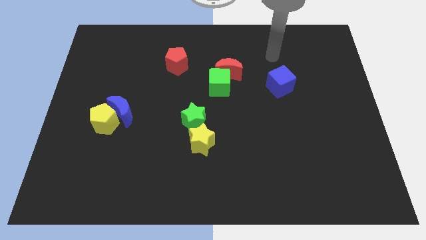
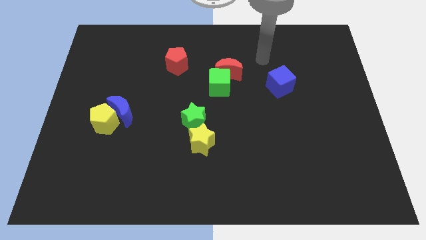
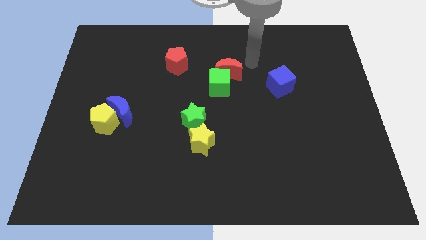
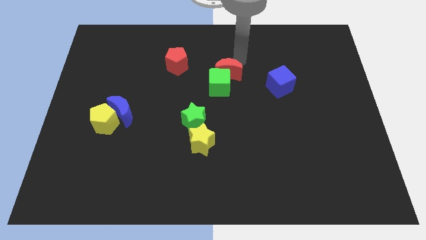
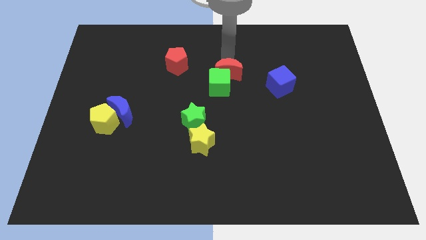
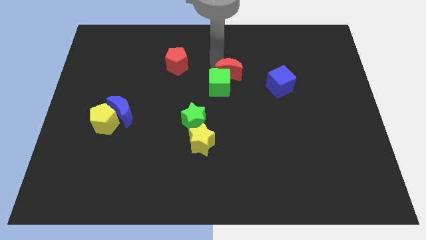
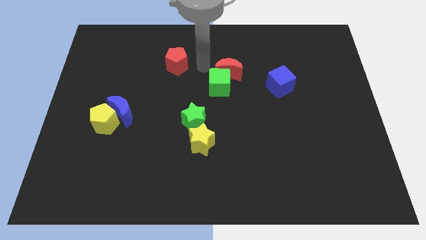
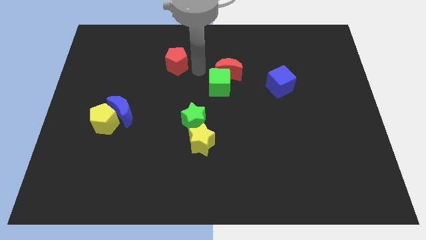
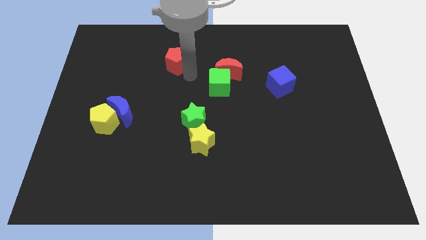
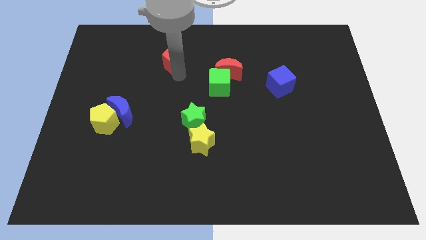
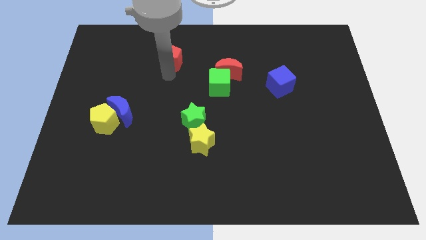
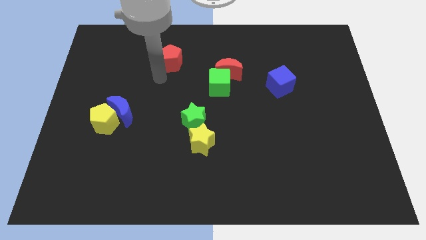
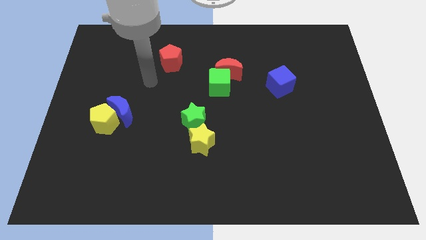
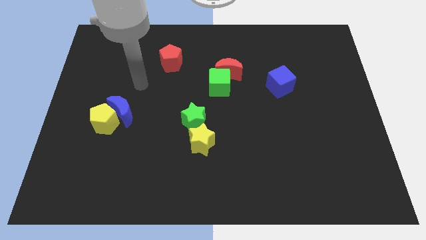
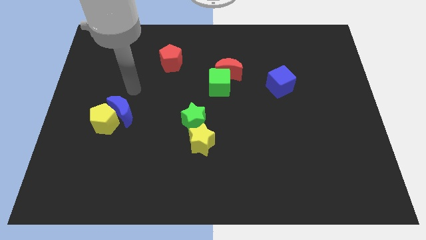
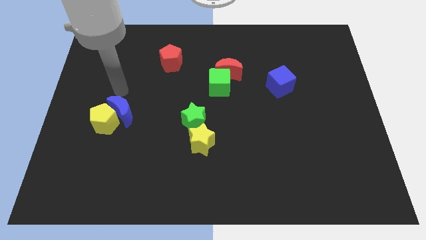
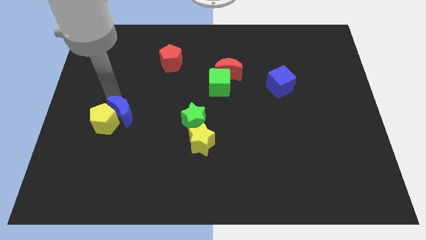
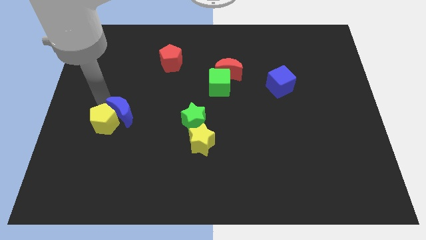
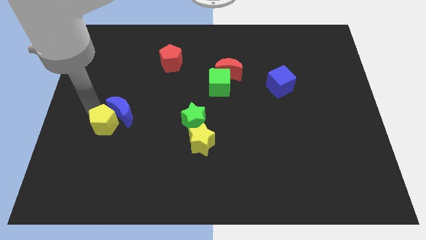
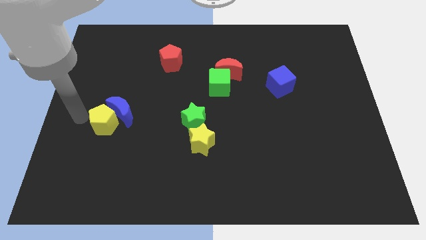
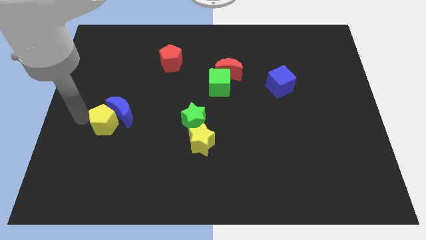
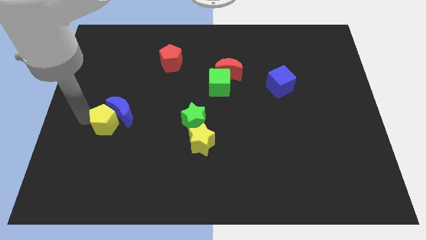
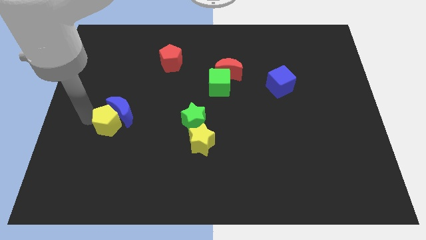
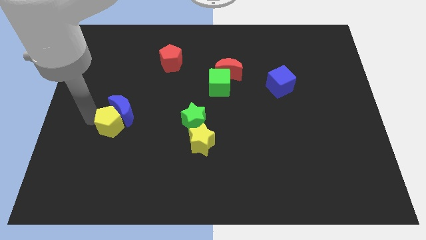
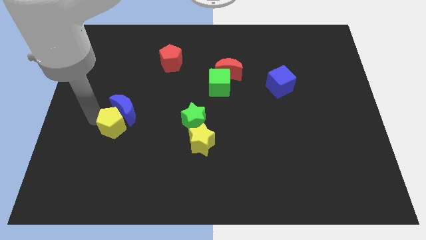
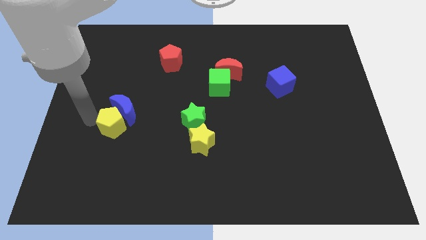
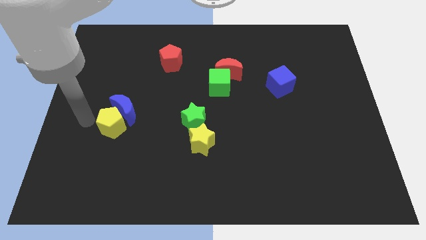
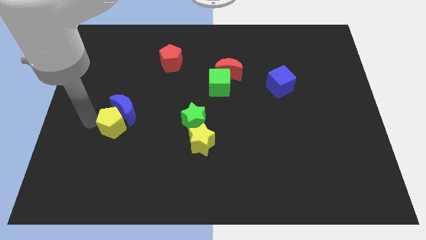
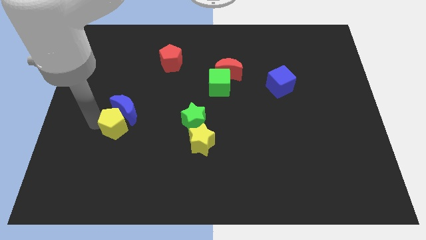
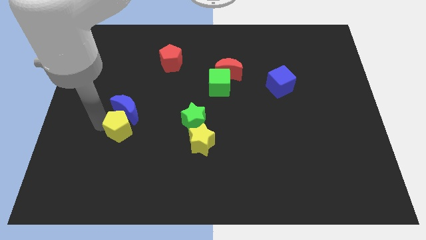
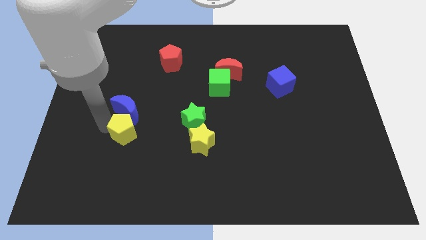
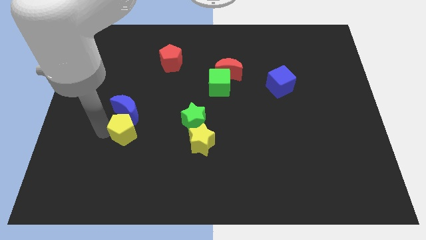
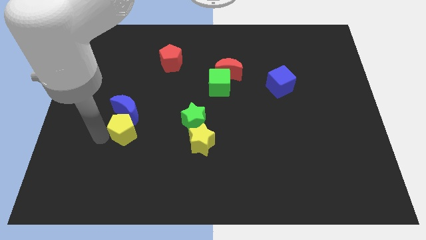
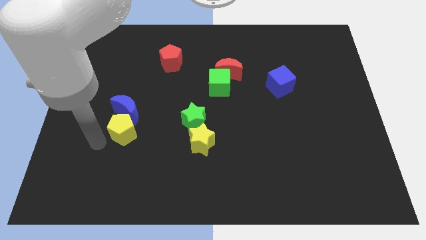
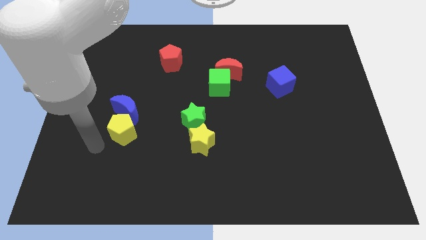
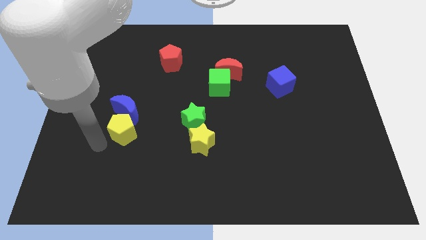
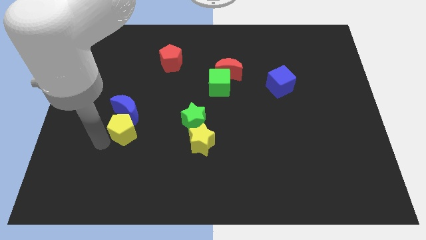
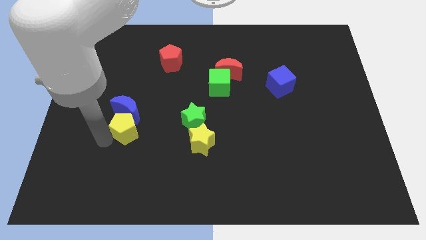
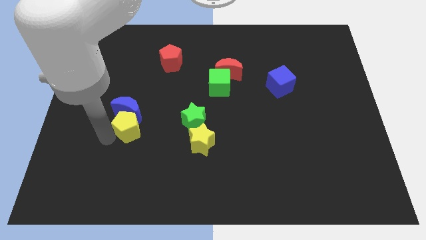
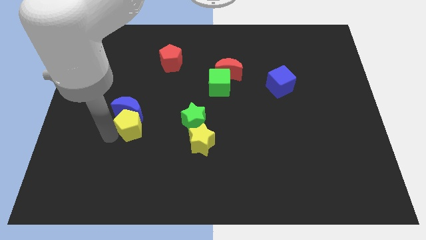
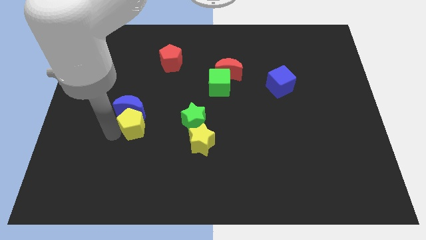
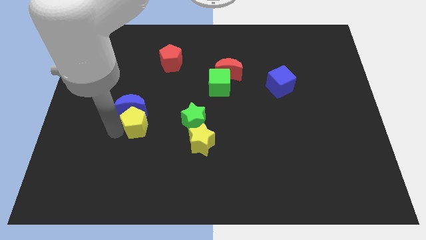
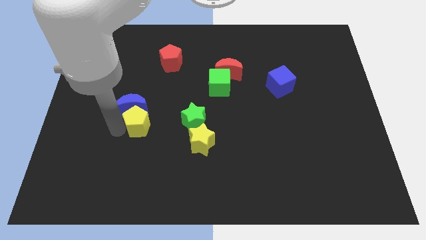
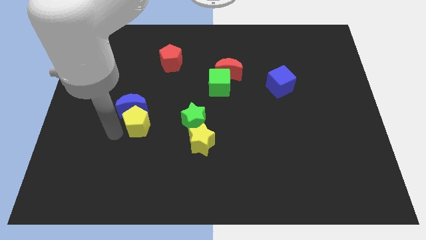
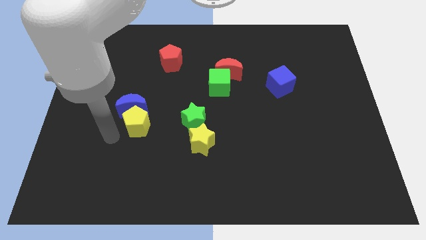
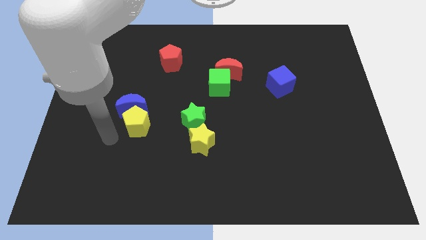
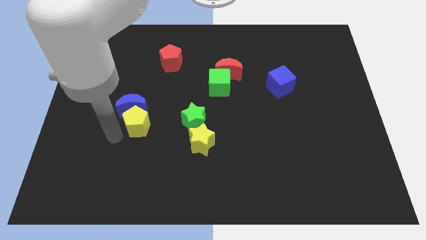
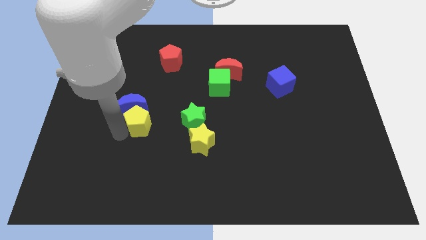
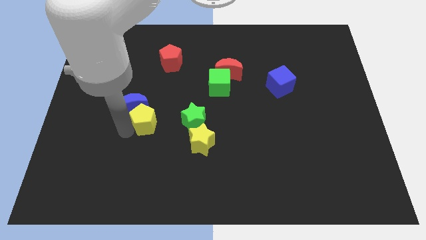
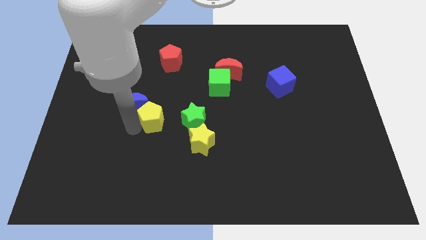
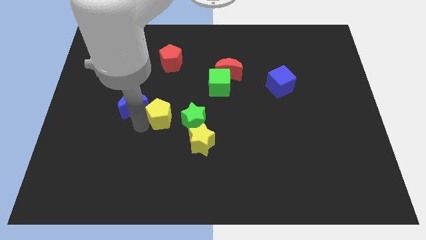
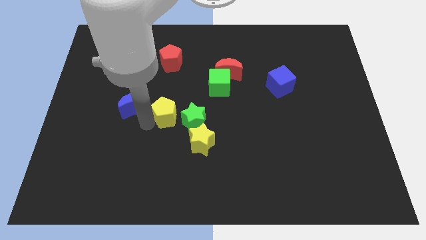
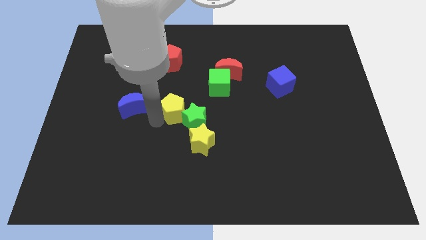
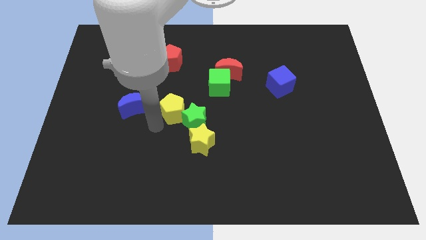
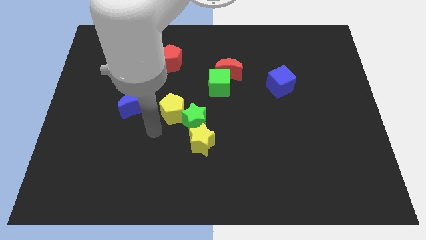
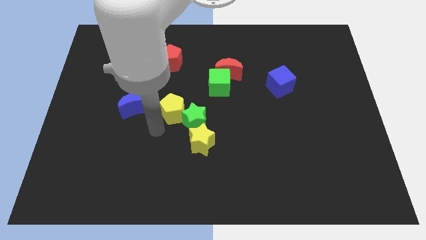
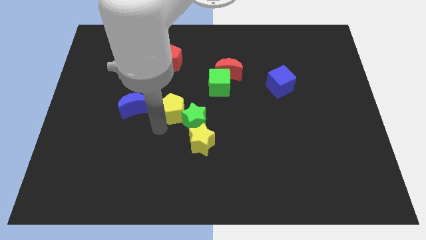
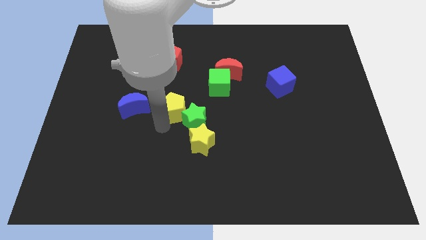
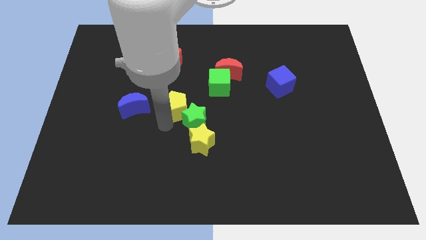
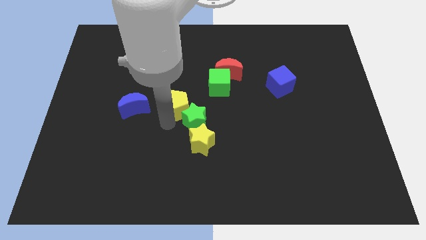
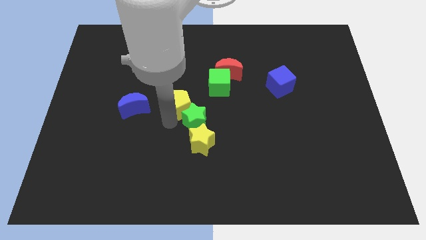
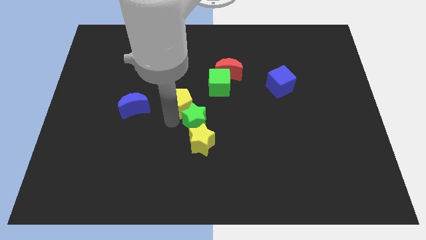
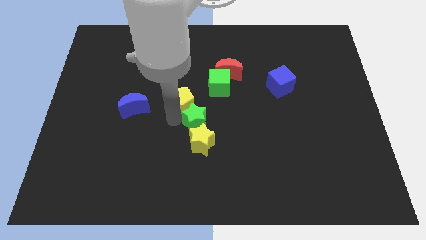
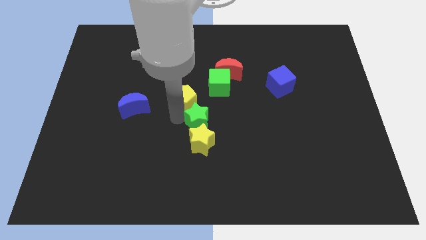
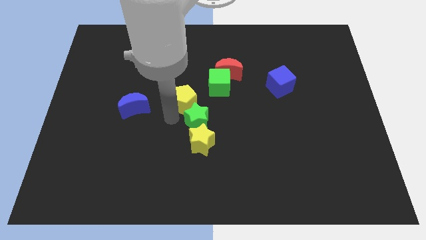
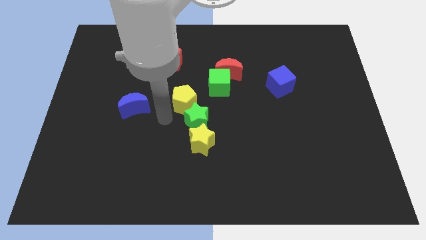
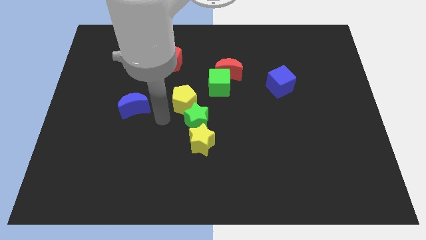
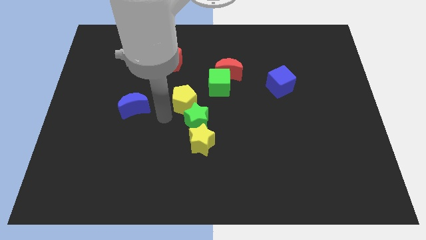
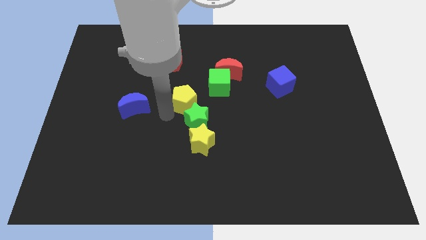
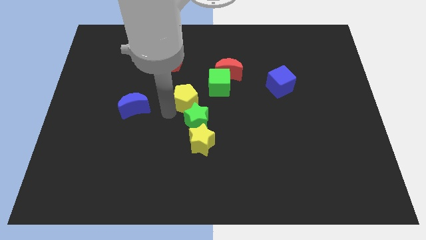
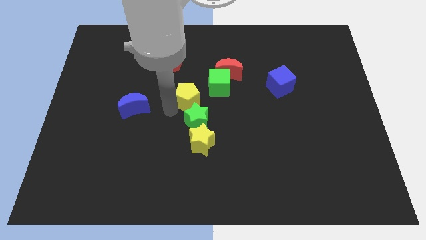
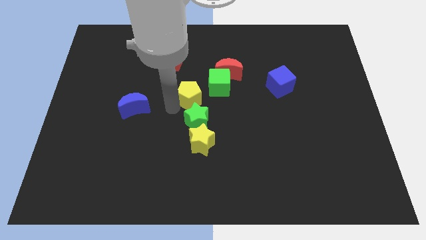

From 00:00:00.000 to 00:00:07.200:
slide the yellow pentagon to the bottom left of the red moon
